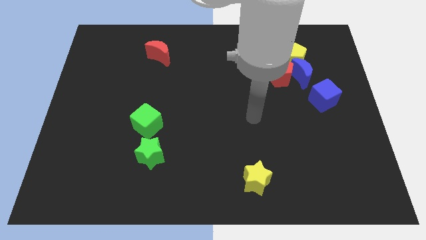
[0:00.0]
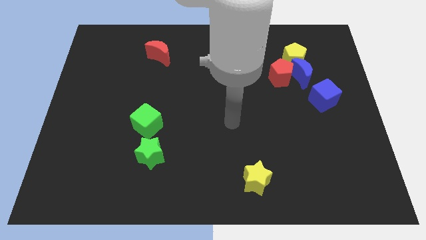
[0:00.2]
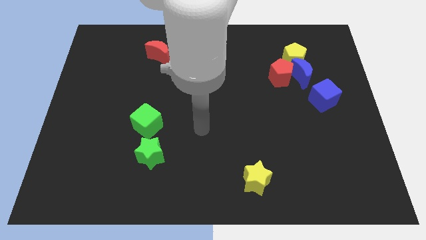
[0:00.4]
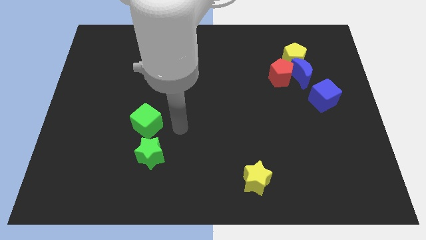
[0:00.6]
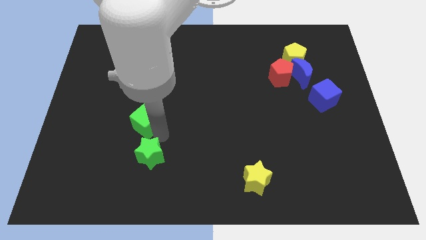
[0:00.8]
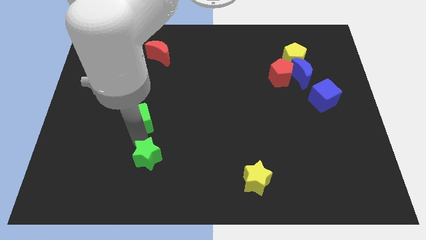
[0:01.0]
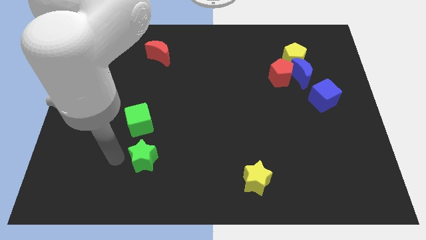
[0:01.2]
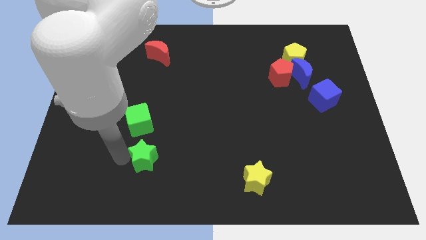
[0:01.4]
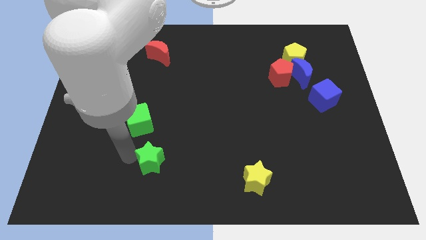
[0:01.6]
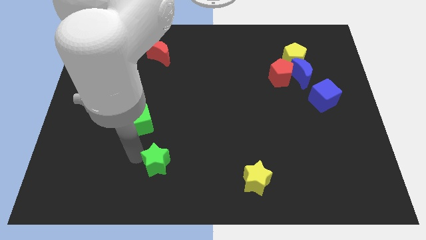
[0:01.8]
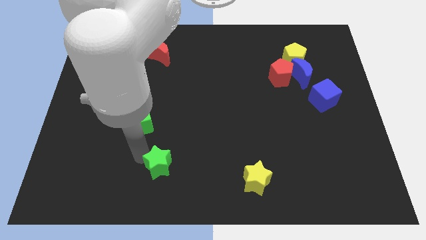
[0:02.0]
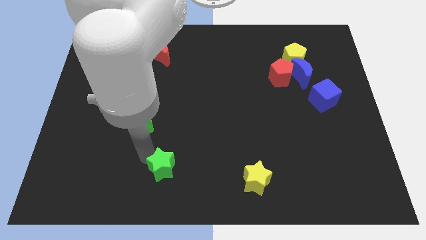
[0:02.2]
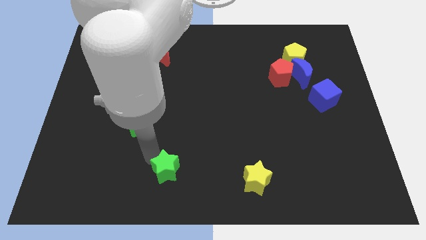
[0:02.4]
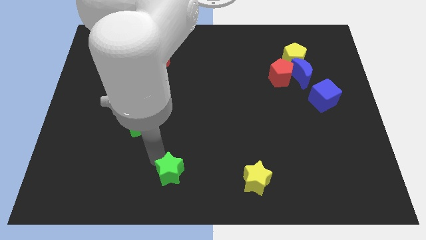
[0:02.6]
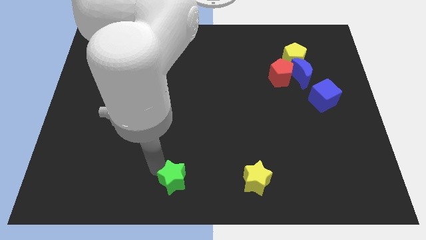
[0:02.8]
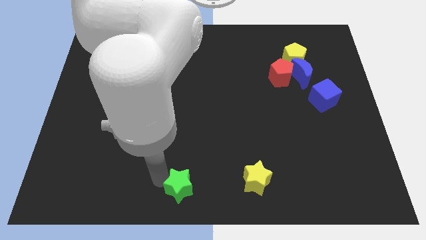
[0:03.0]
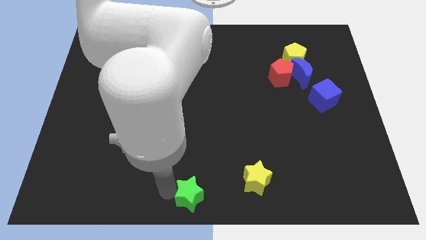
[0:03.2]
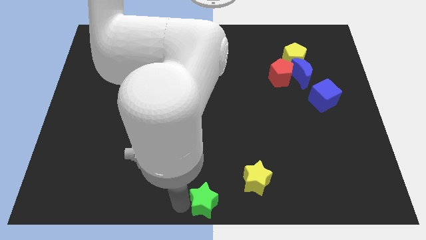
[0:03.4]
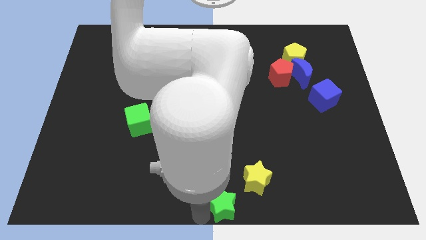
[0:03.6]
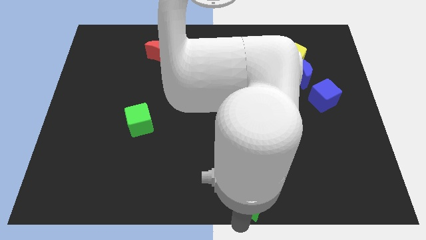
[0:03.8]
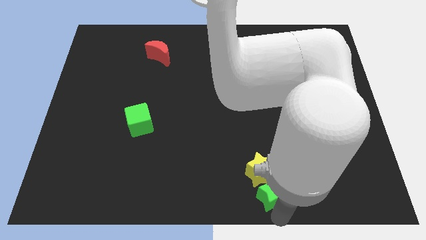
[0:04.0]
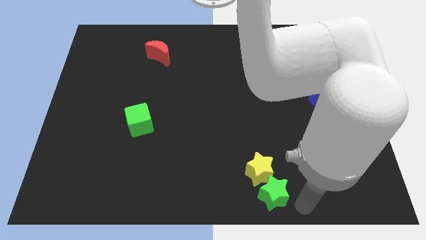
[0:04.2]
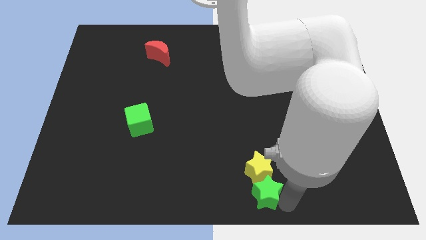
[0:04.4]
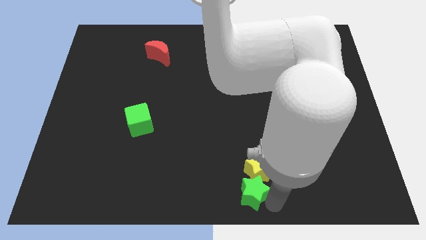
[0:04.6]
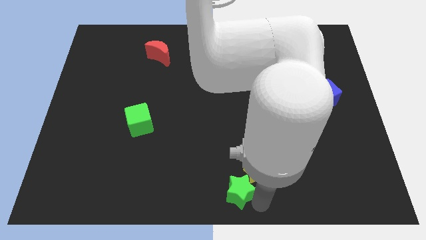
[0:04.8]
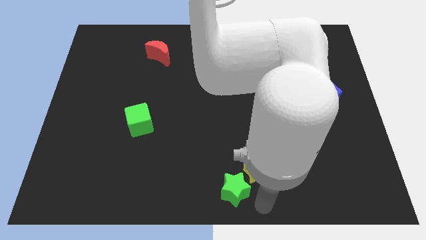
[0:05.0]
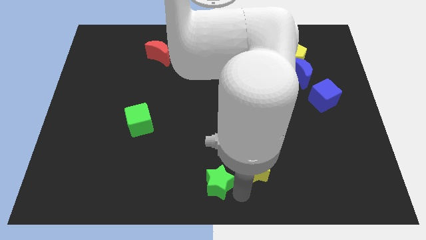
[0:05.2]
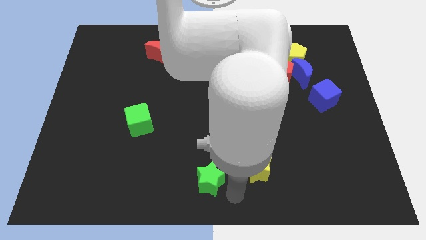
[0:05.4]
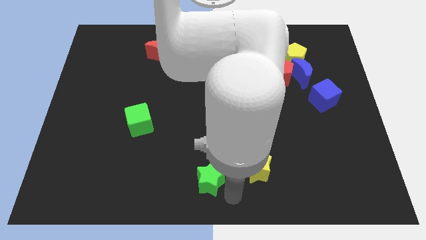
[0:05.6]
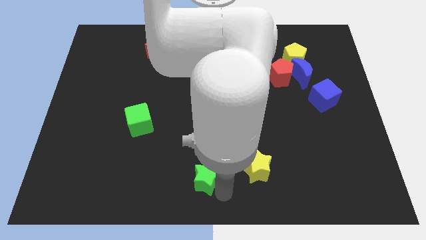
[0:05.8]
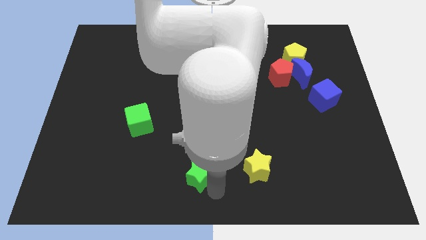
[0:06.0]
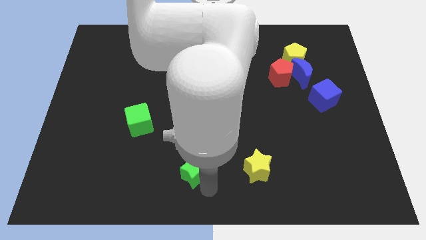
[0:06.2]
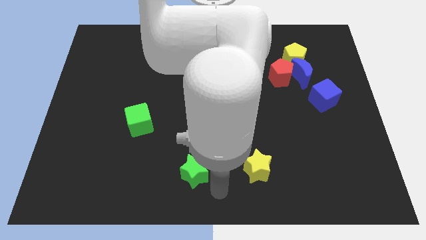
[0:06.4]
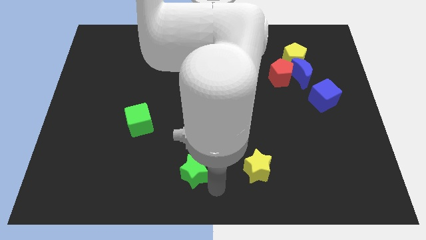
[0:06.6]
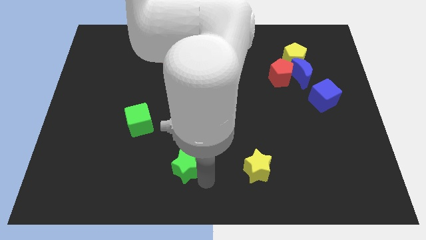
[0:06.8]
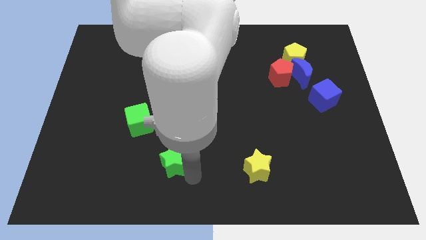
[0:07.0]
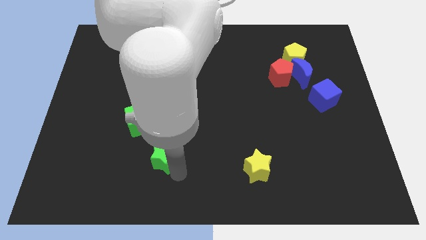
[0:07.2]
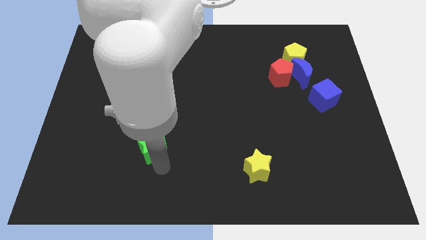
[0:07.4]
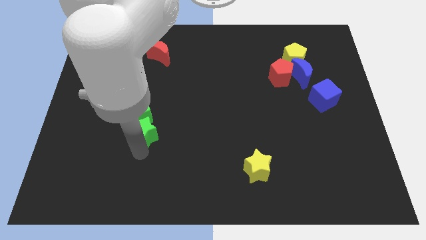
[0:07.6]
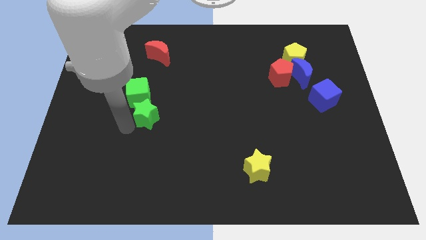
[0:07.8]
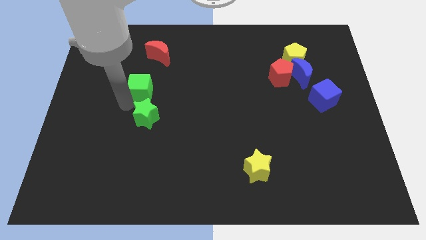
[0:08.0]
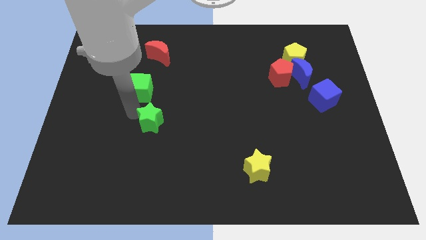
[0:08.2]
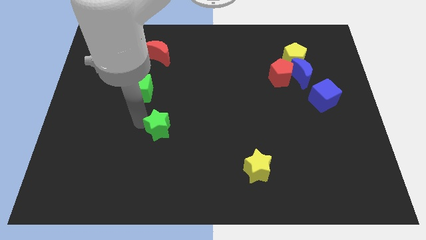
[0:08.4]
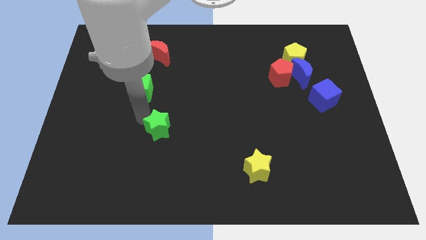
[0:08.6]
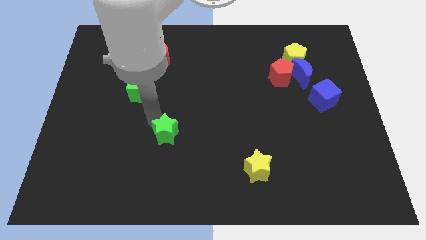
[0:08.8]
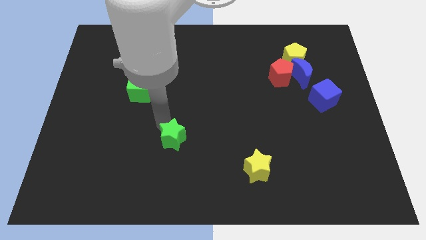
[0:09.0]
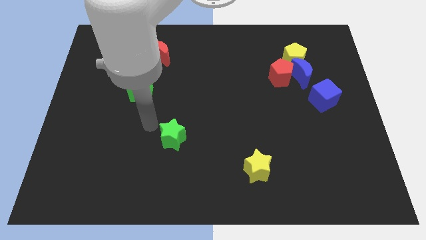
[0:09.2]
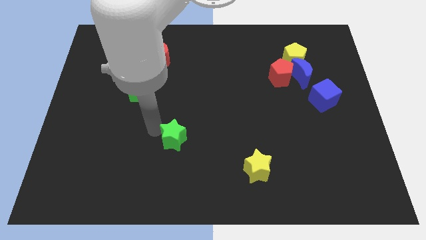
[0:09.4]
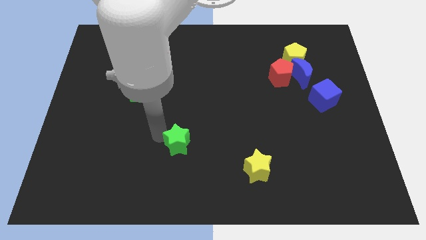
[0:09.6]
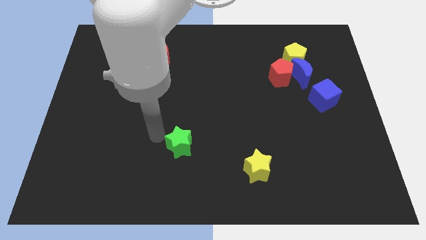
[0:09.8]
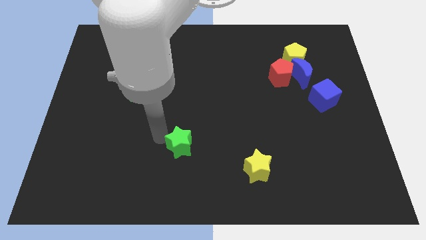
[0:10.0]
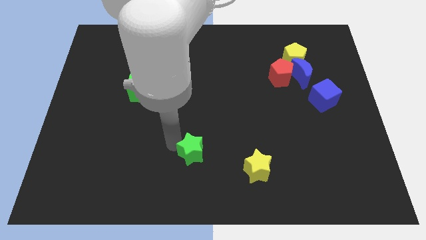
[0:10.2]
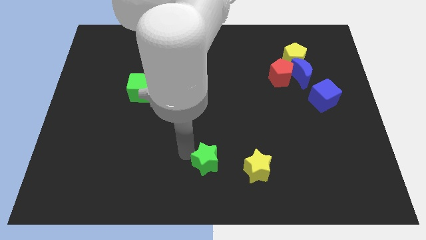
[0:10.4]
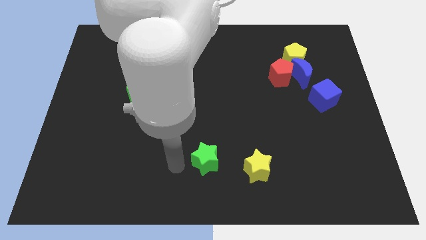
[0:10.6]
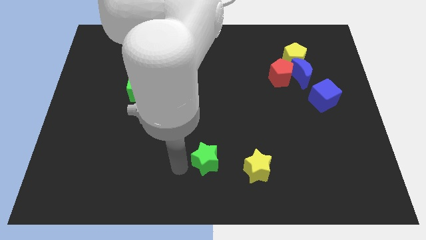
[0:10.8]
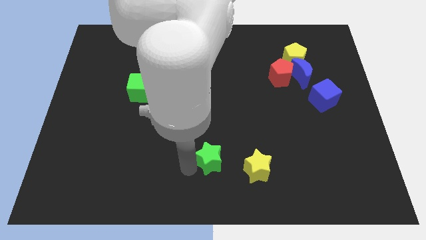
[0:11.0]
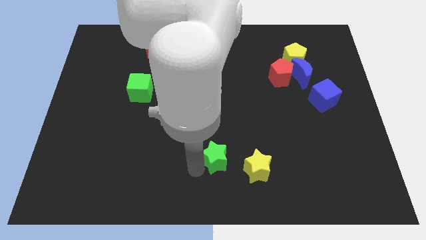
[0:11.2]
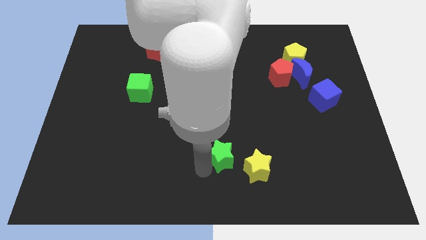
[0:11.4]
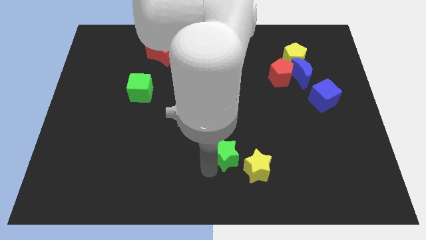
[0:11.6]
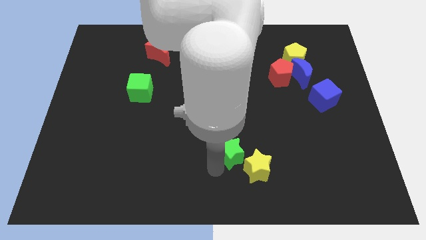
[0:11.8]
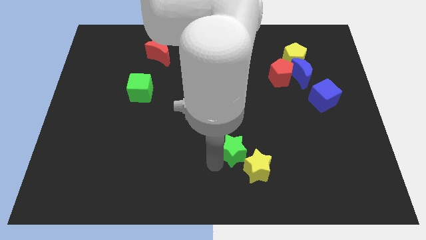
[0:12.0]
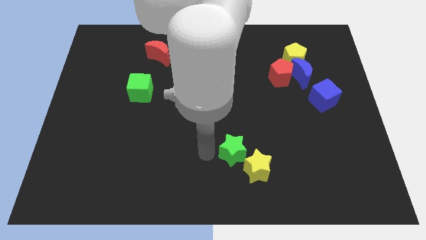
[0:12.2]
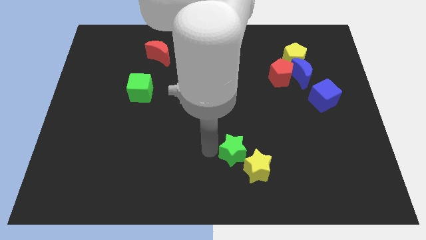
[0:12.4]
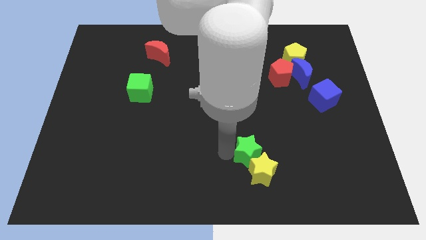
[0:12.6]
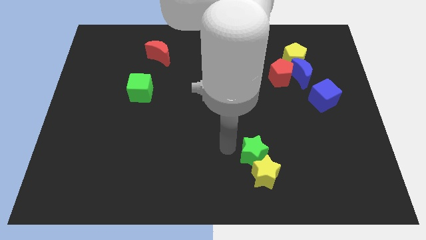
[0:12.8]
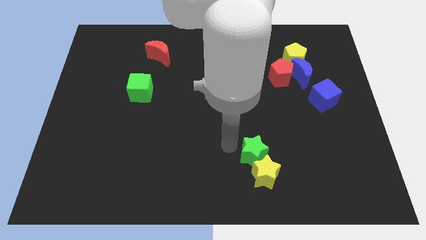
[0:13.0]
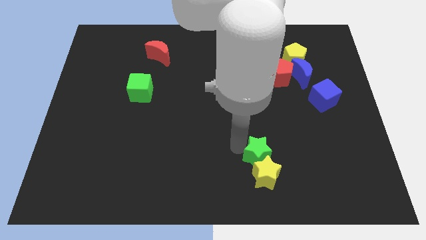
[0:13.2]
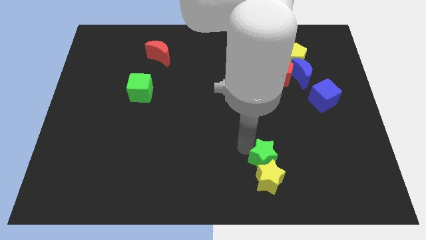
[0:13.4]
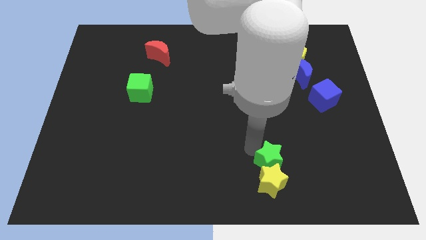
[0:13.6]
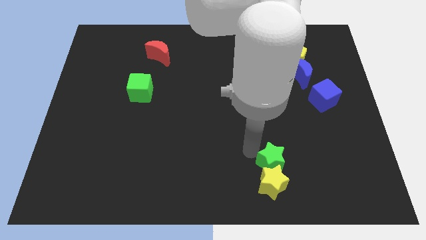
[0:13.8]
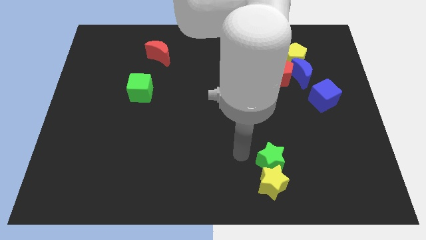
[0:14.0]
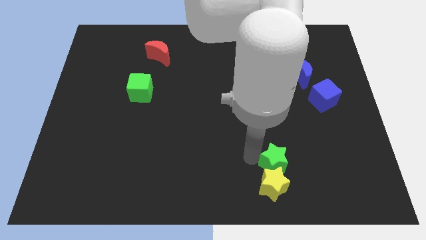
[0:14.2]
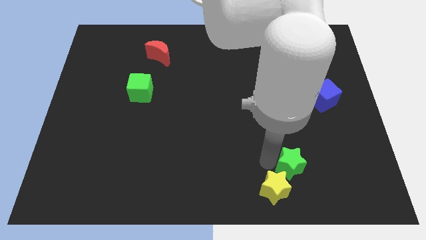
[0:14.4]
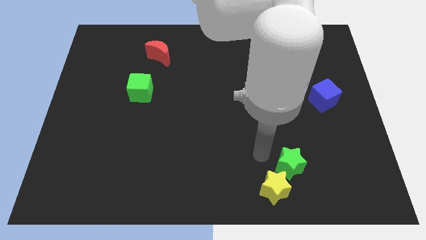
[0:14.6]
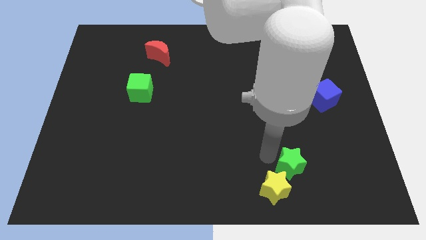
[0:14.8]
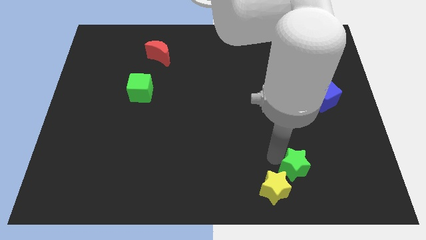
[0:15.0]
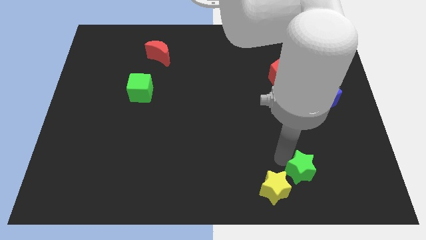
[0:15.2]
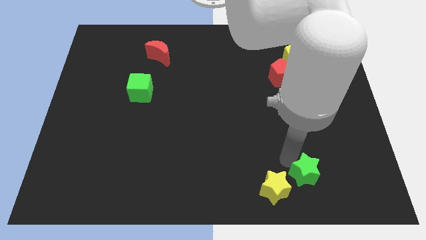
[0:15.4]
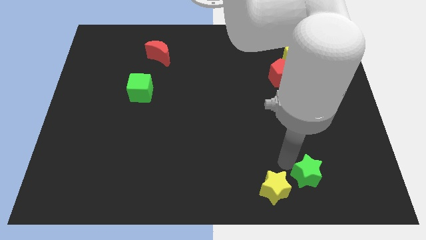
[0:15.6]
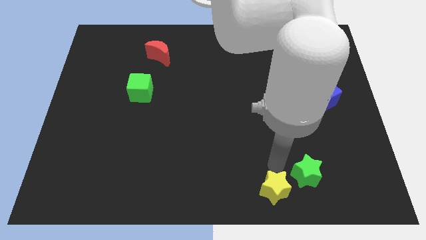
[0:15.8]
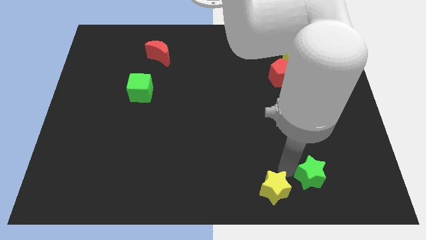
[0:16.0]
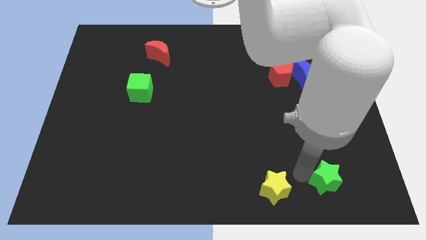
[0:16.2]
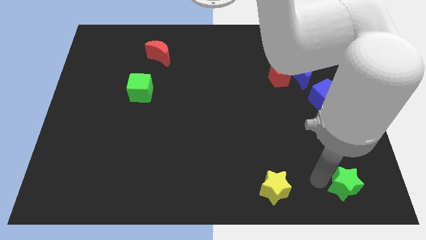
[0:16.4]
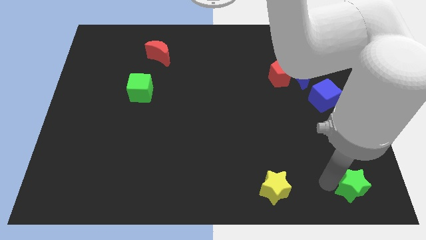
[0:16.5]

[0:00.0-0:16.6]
put the green star to the bottom right corner
